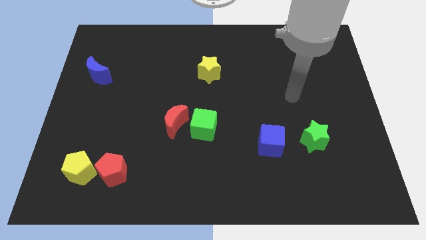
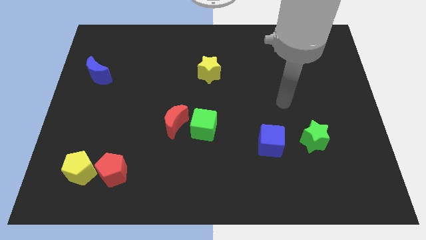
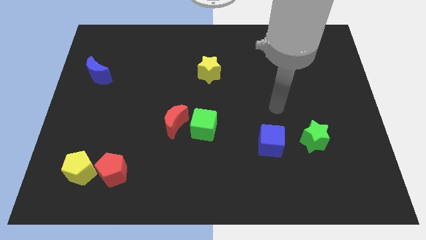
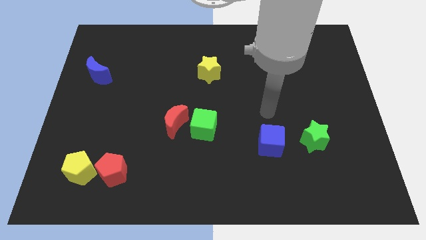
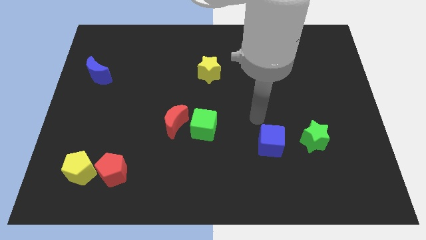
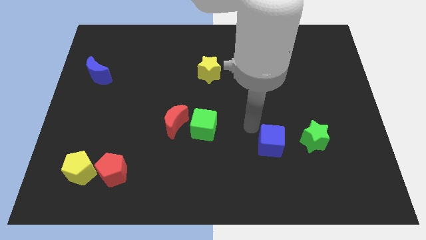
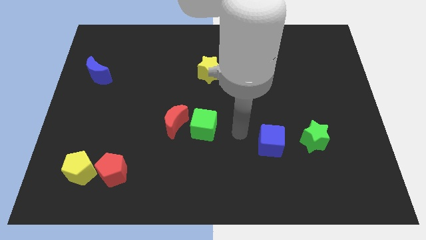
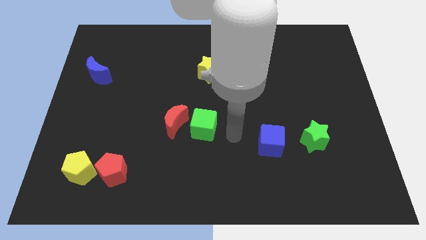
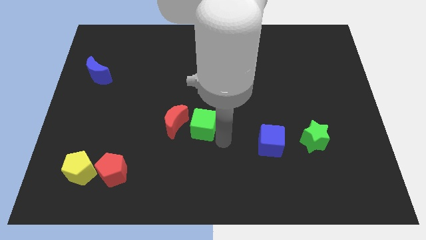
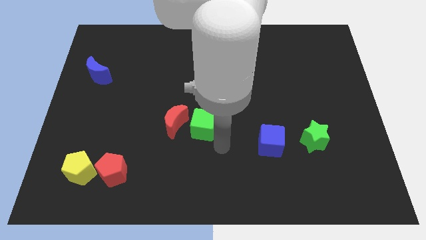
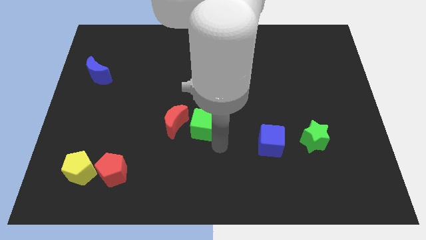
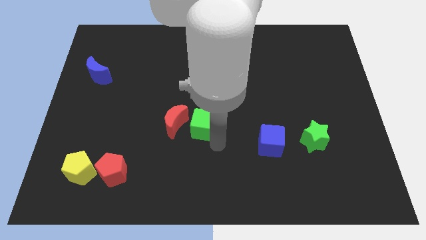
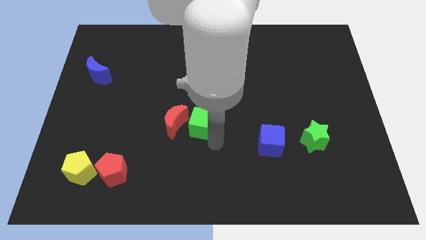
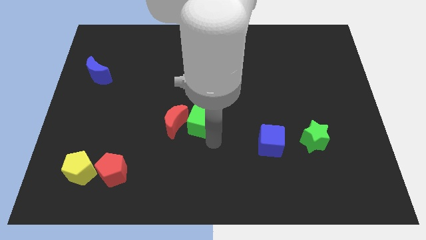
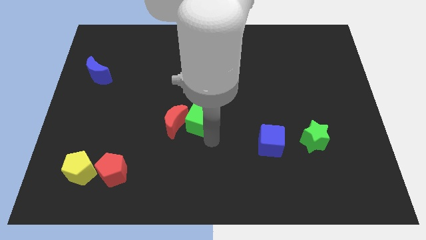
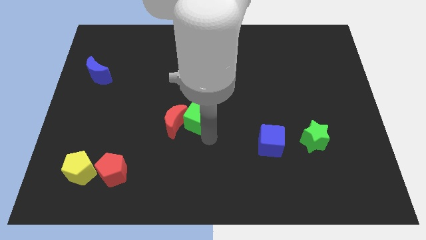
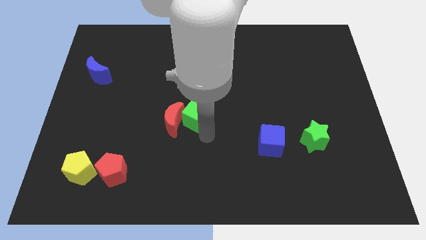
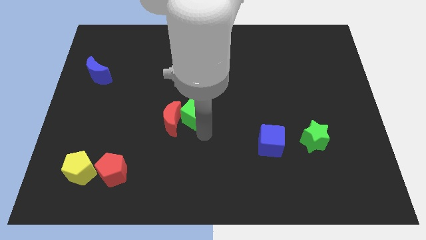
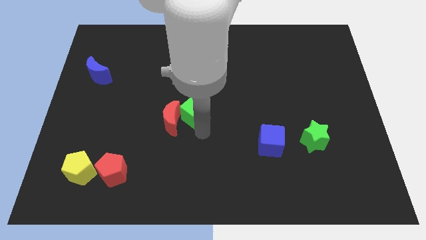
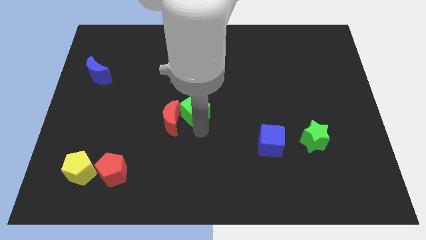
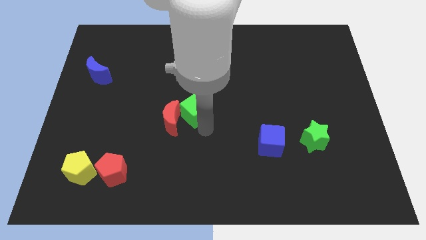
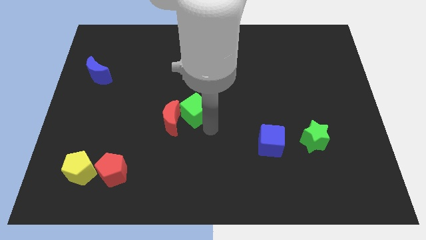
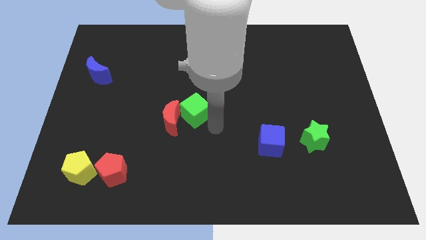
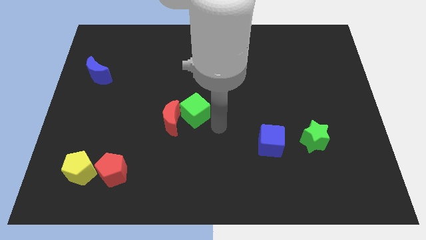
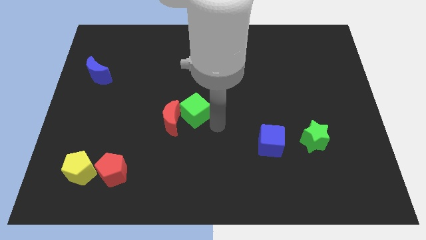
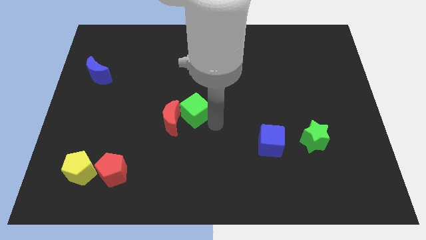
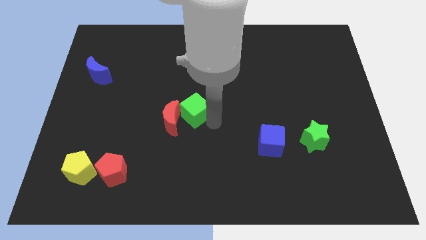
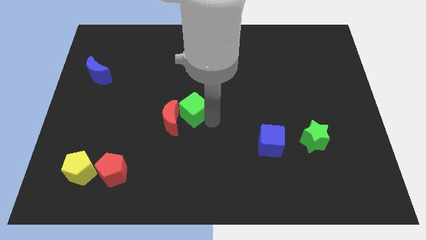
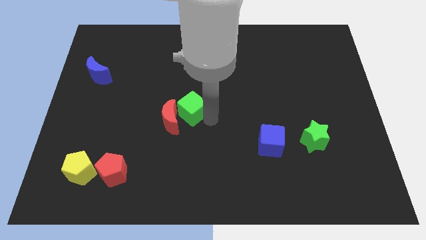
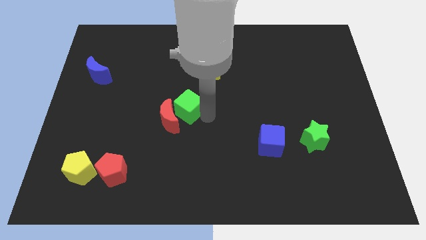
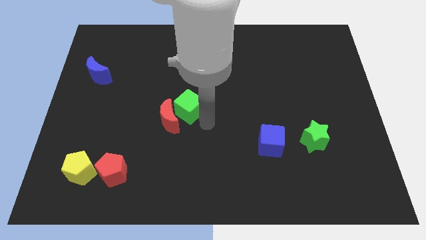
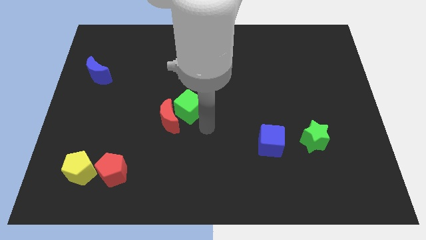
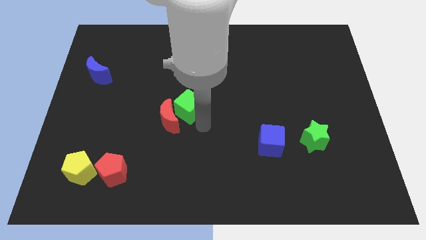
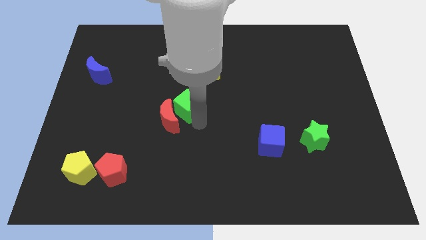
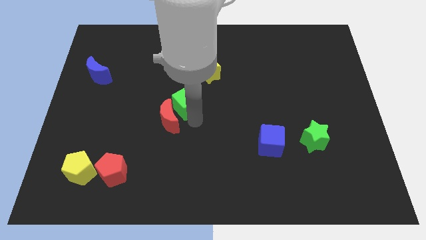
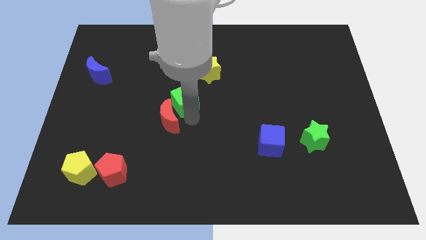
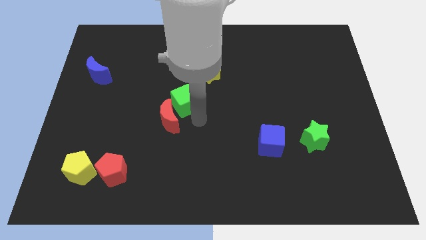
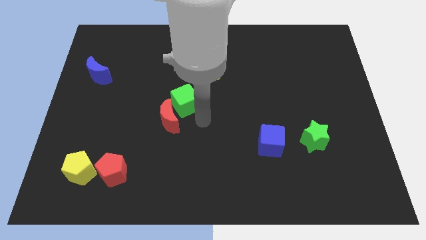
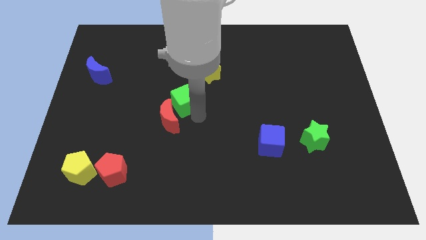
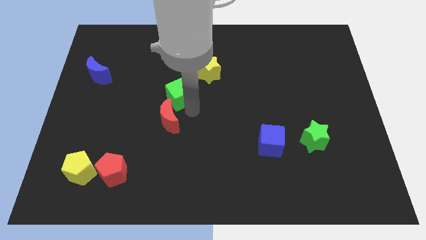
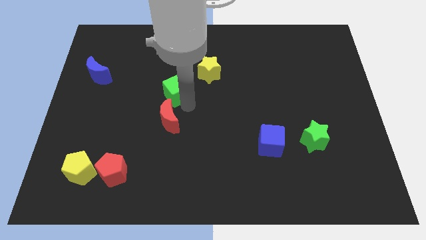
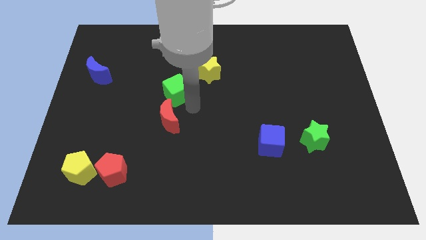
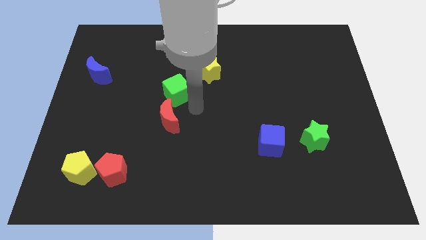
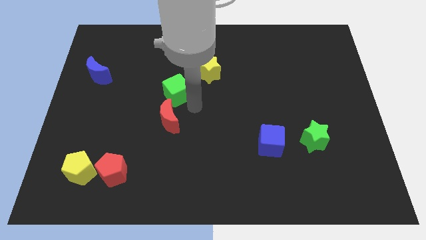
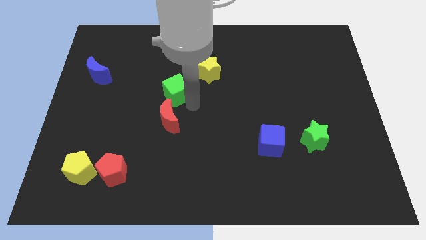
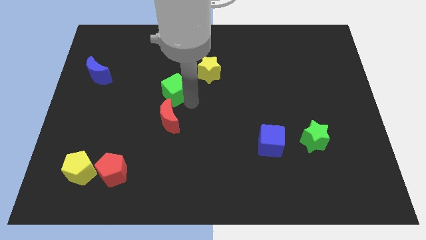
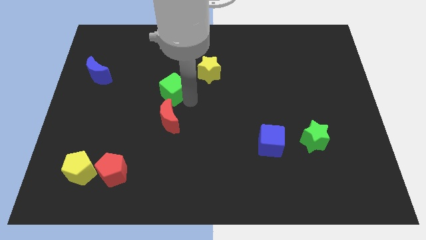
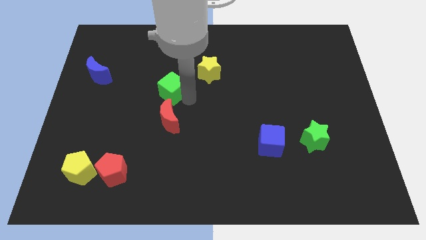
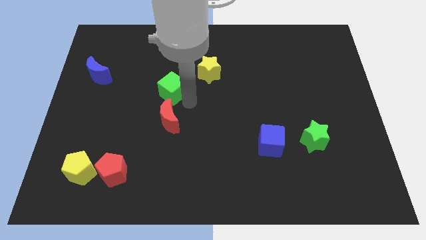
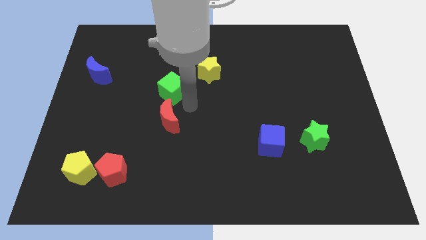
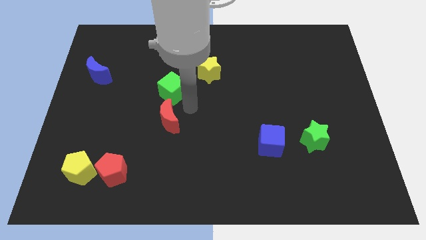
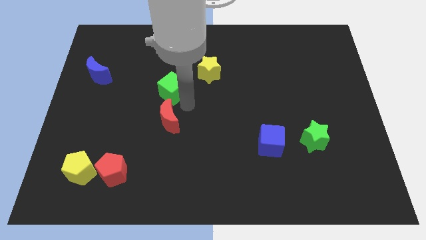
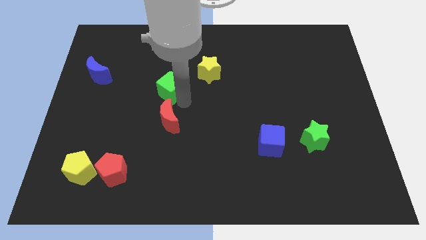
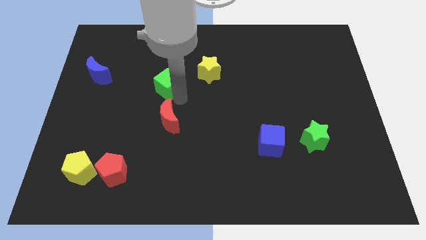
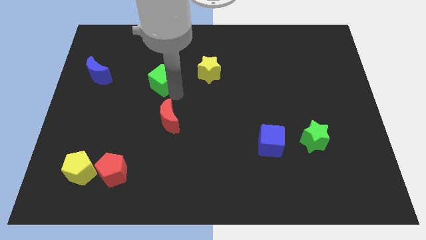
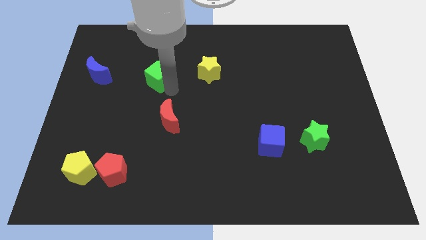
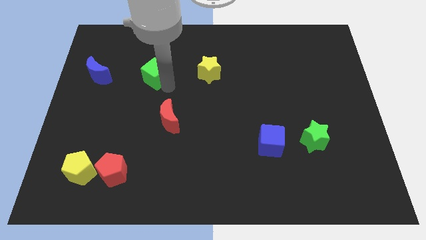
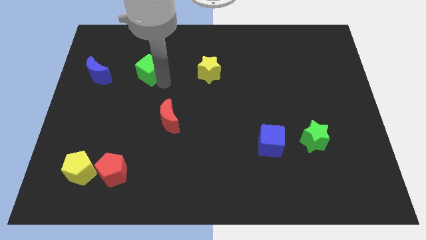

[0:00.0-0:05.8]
move the green cube upwards and to the left

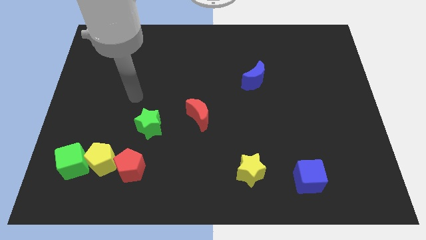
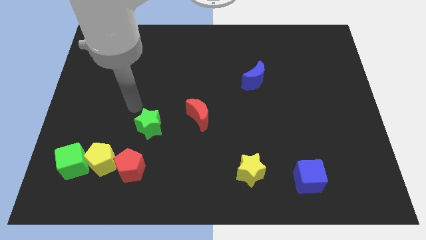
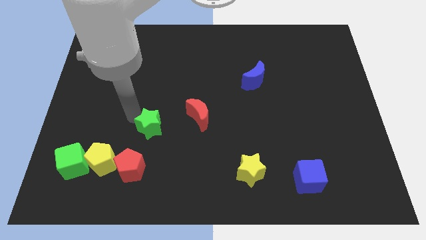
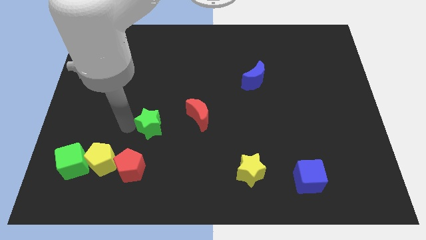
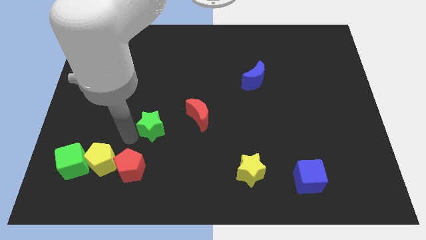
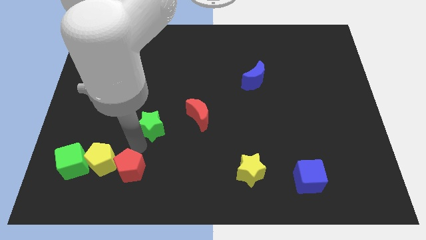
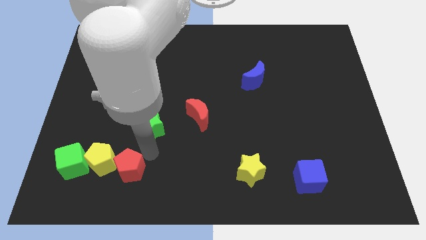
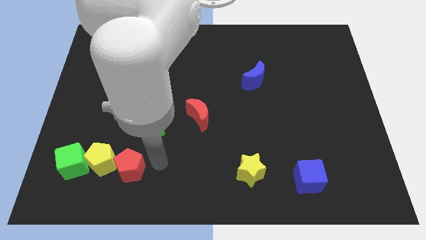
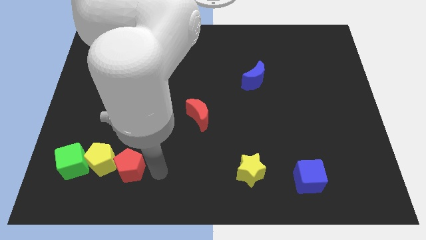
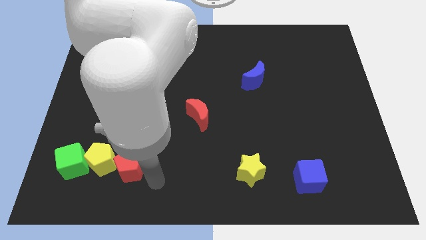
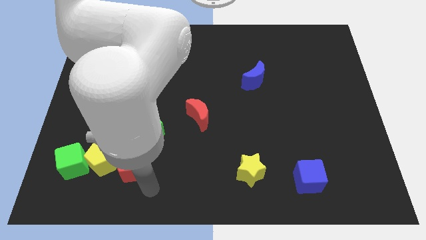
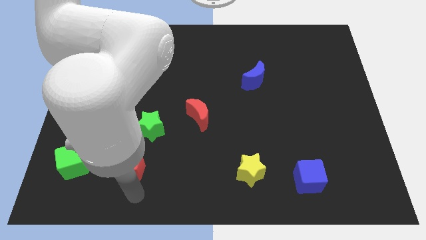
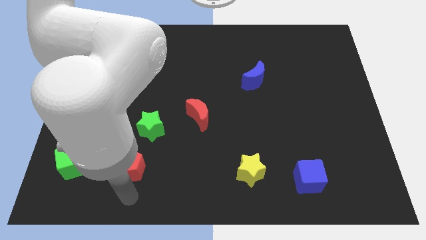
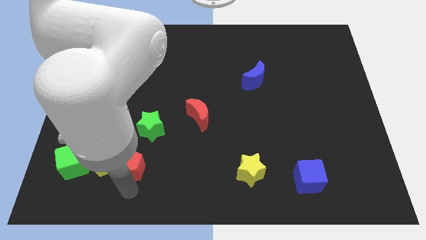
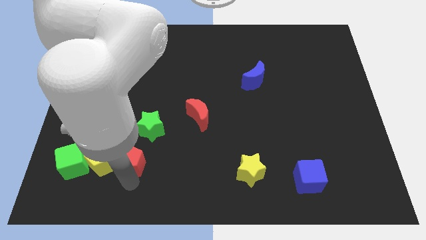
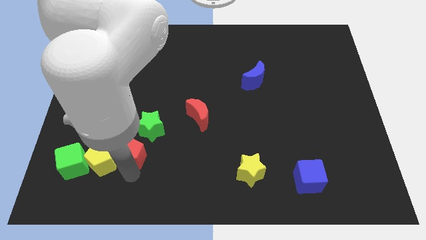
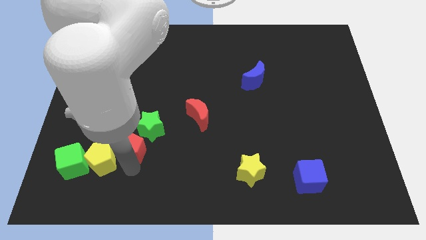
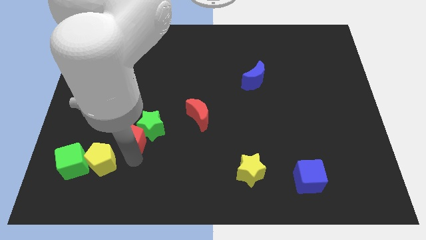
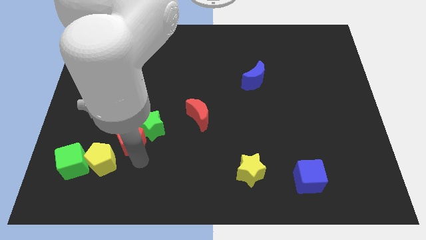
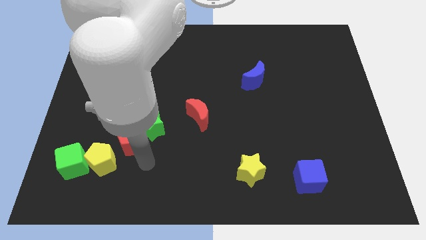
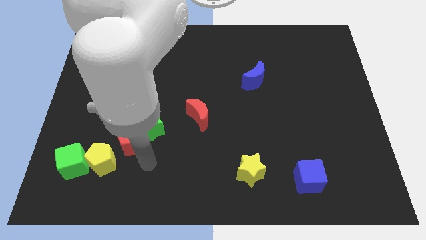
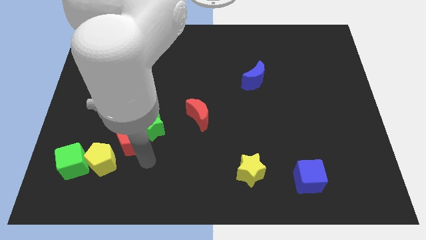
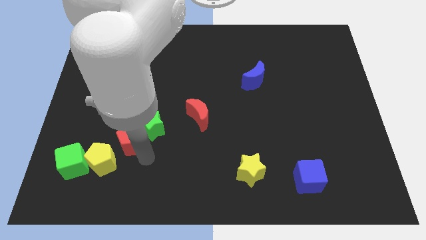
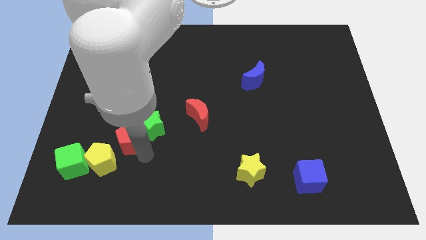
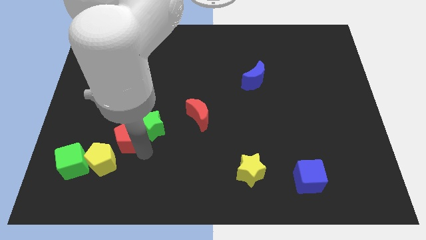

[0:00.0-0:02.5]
slide the red pentagon slightly upwards
